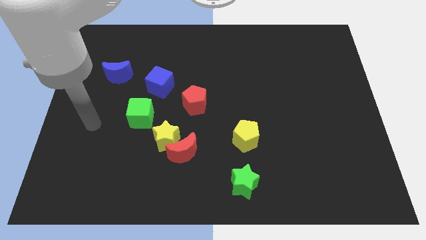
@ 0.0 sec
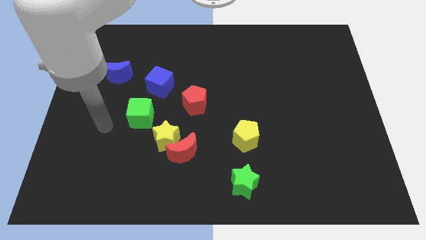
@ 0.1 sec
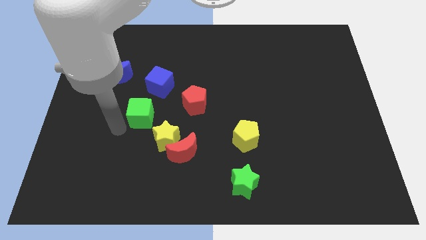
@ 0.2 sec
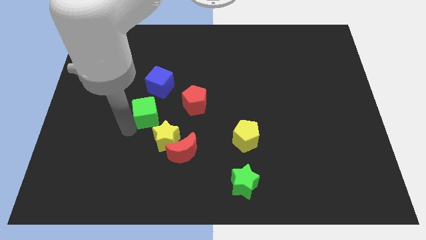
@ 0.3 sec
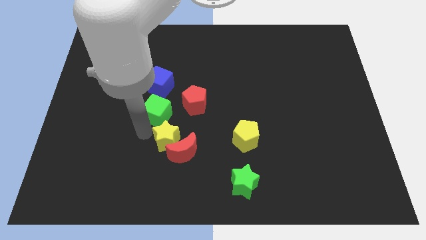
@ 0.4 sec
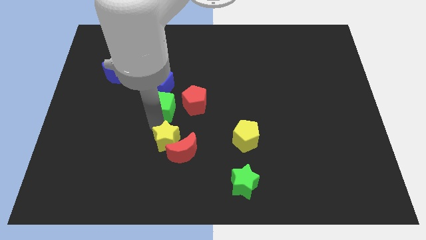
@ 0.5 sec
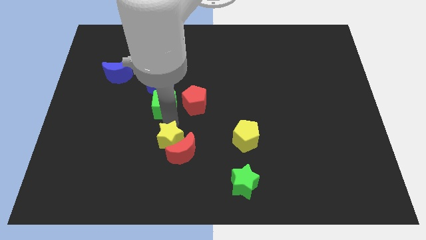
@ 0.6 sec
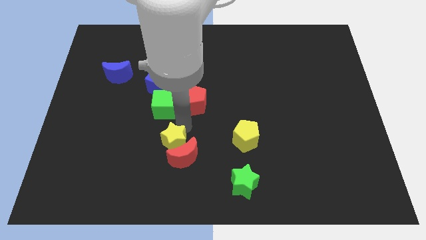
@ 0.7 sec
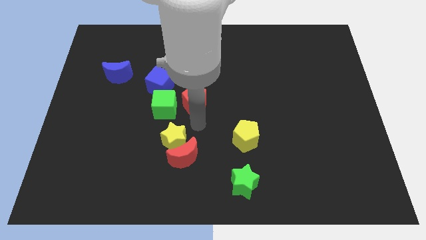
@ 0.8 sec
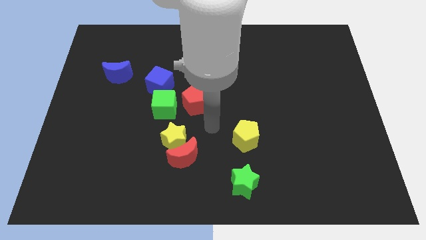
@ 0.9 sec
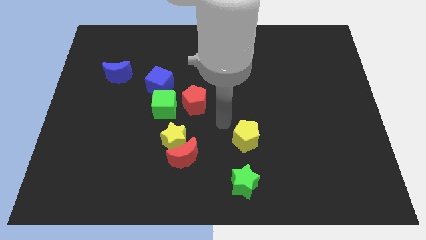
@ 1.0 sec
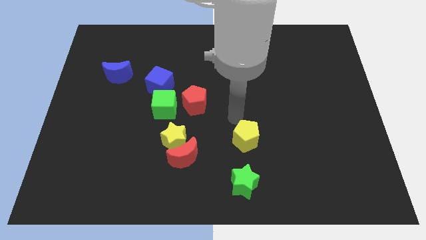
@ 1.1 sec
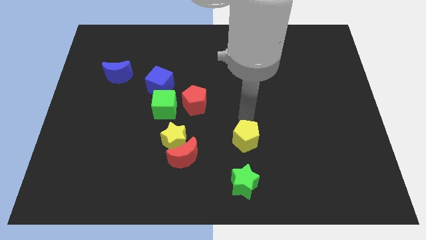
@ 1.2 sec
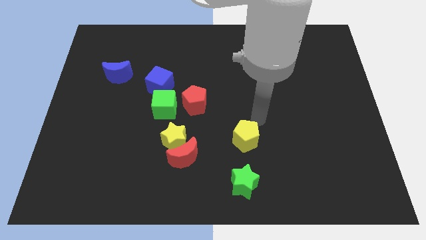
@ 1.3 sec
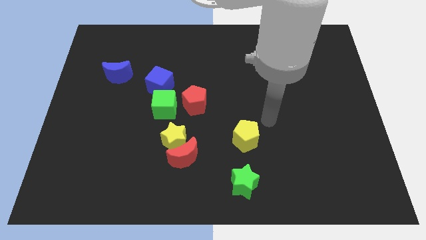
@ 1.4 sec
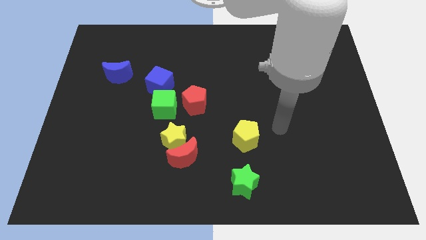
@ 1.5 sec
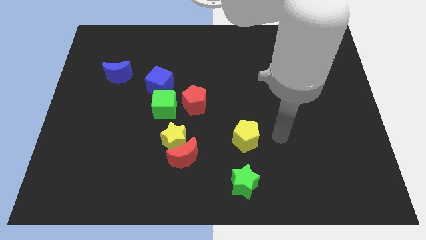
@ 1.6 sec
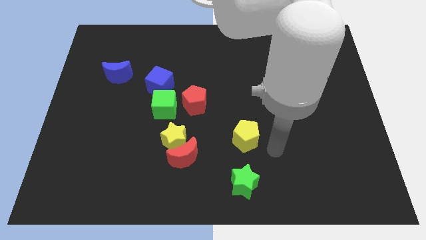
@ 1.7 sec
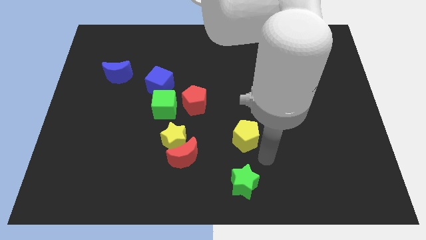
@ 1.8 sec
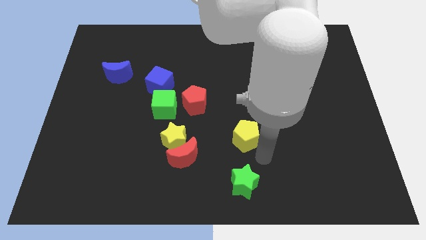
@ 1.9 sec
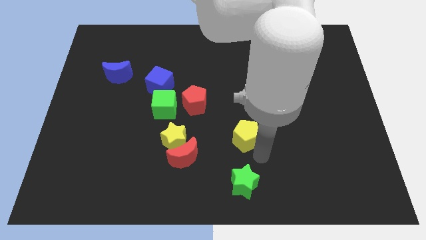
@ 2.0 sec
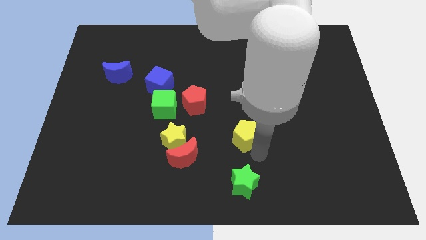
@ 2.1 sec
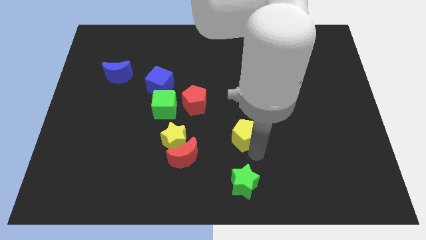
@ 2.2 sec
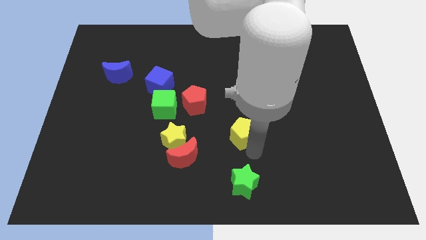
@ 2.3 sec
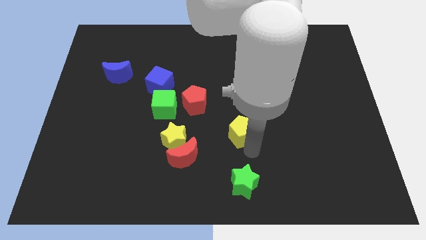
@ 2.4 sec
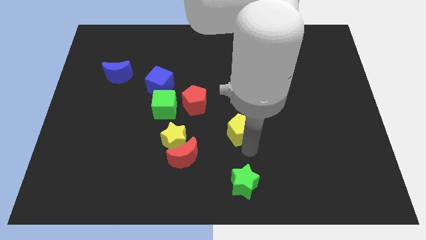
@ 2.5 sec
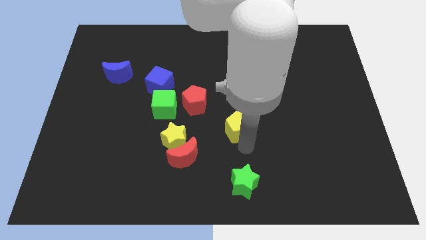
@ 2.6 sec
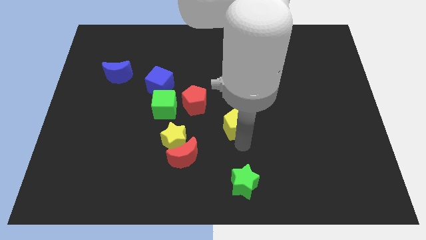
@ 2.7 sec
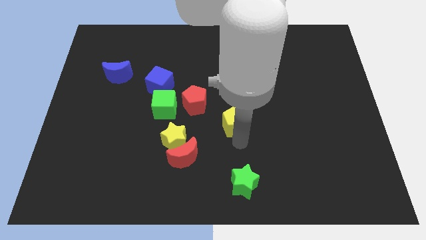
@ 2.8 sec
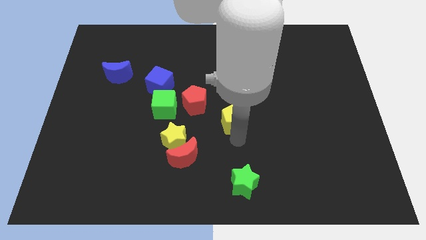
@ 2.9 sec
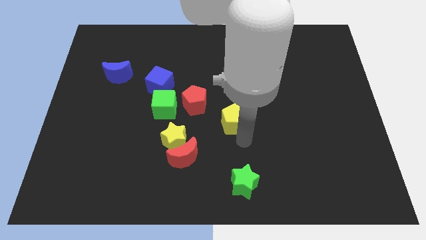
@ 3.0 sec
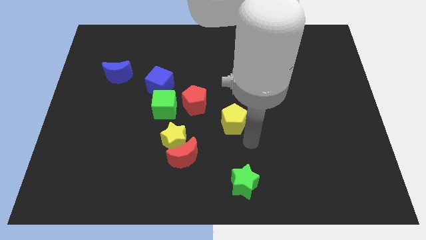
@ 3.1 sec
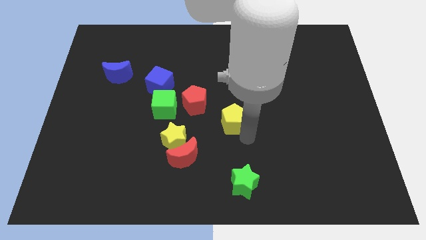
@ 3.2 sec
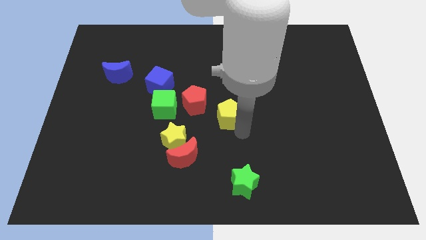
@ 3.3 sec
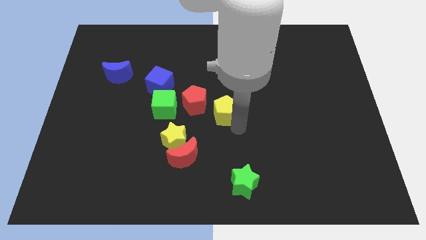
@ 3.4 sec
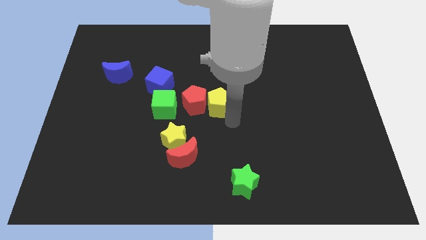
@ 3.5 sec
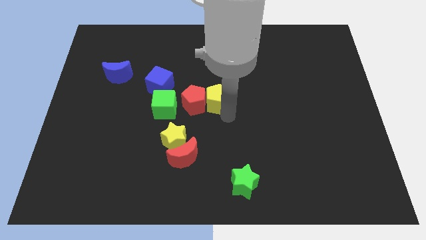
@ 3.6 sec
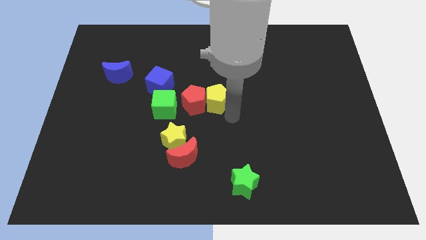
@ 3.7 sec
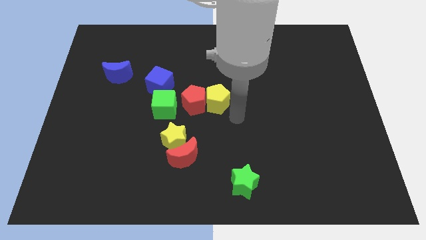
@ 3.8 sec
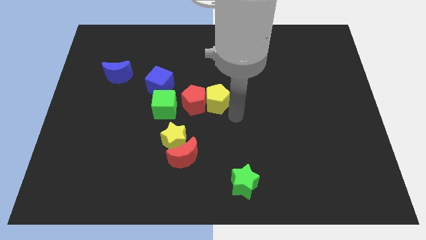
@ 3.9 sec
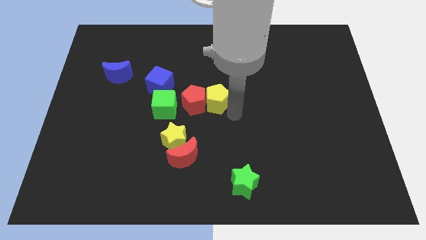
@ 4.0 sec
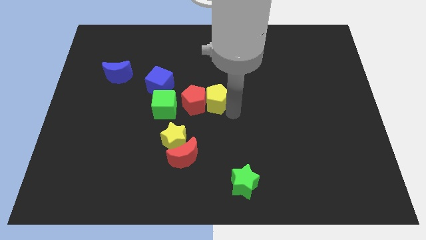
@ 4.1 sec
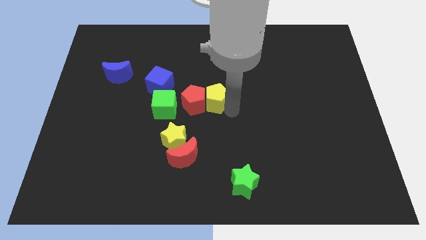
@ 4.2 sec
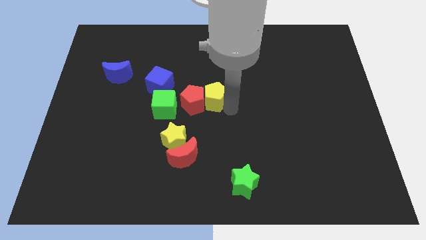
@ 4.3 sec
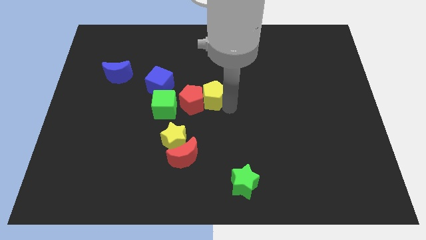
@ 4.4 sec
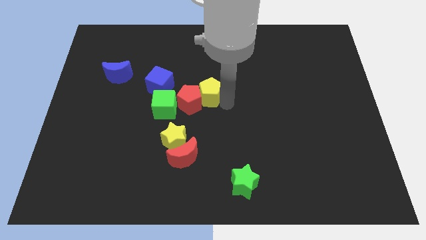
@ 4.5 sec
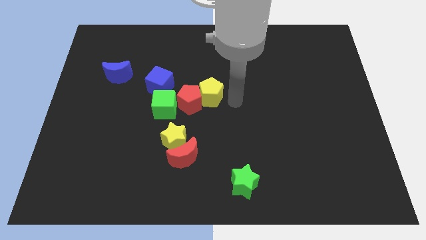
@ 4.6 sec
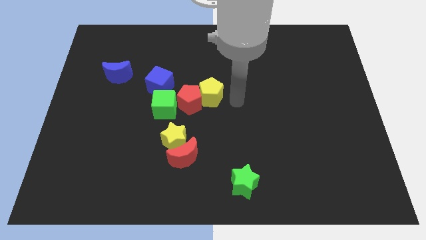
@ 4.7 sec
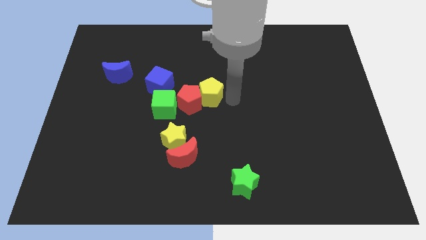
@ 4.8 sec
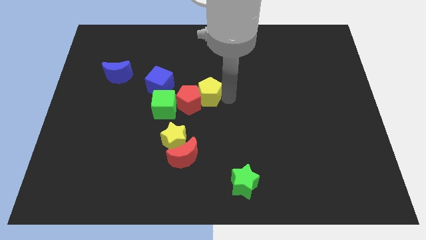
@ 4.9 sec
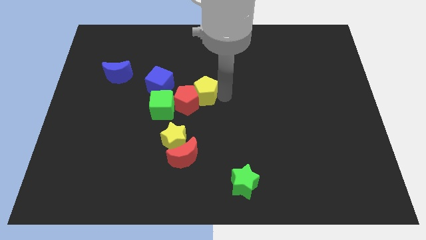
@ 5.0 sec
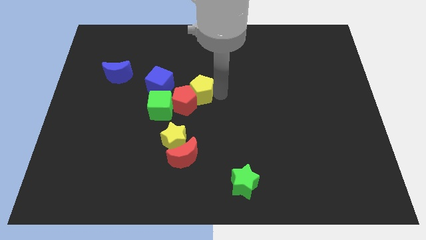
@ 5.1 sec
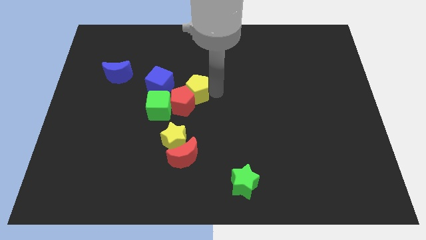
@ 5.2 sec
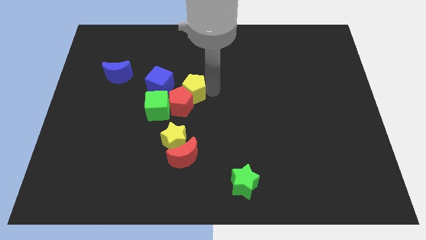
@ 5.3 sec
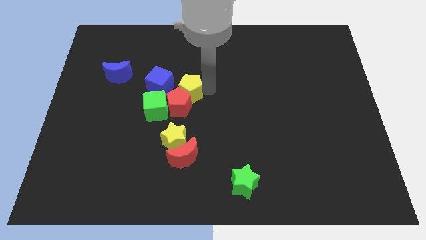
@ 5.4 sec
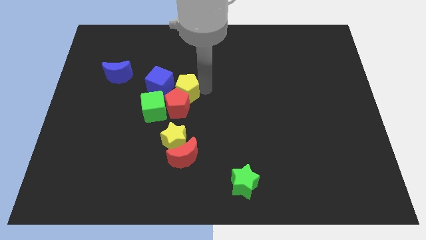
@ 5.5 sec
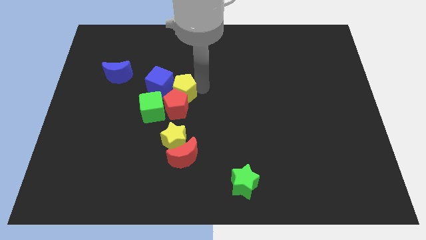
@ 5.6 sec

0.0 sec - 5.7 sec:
push the yellow pentagon to the blue cube
